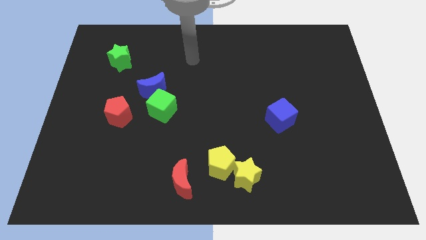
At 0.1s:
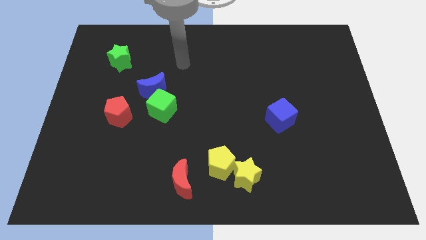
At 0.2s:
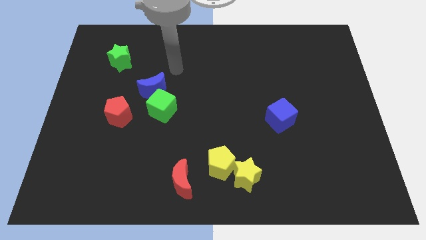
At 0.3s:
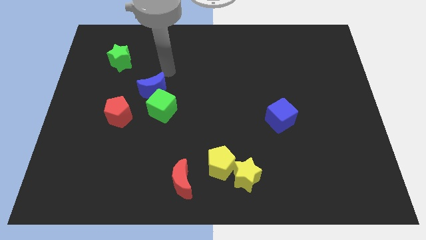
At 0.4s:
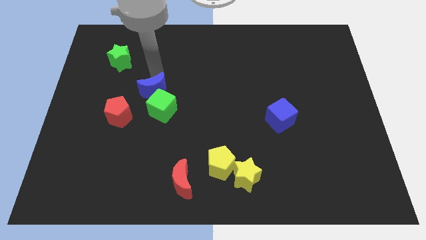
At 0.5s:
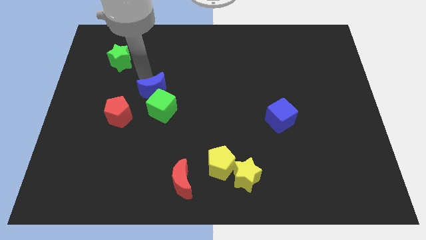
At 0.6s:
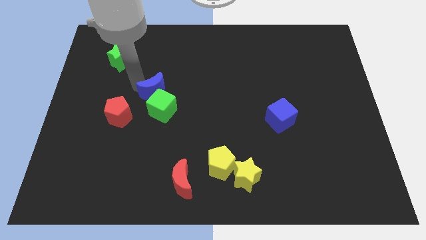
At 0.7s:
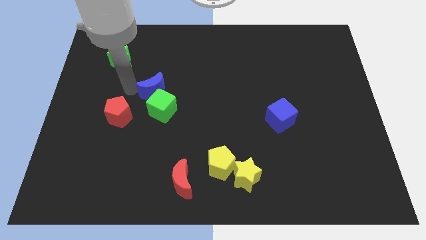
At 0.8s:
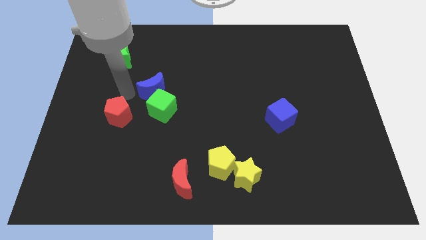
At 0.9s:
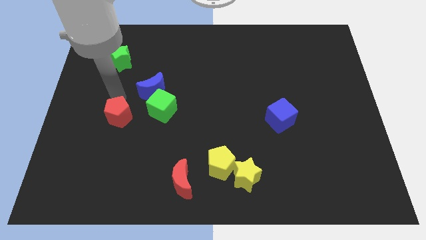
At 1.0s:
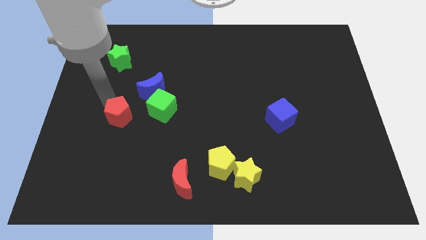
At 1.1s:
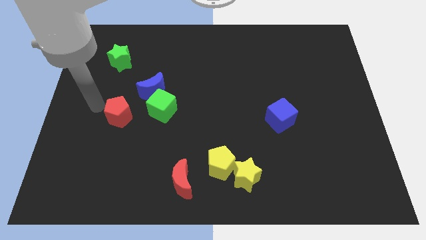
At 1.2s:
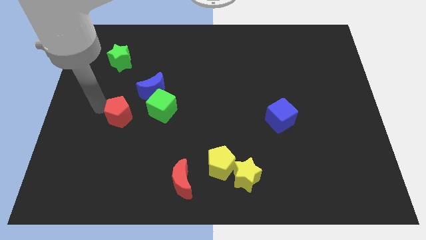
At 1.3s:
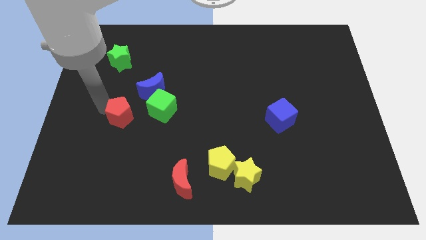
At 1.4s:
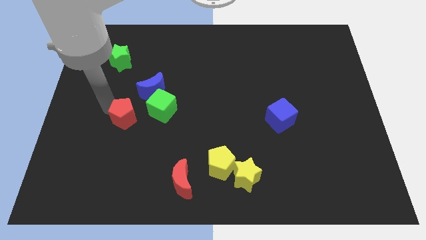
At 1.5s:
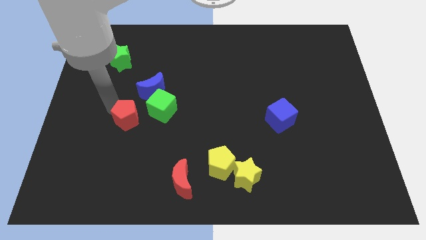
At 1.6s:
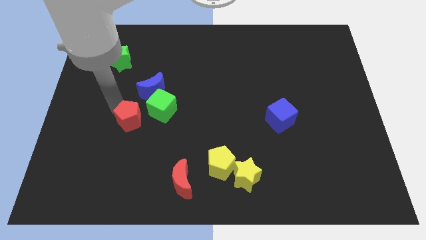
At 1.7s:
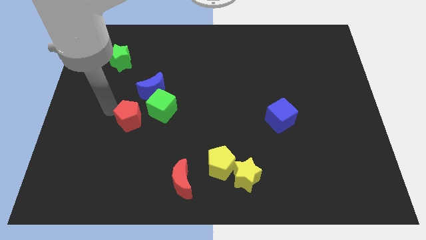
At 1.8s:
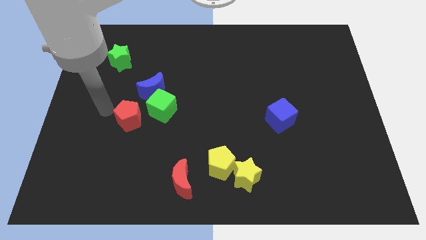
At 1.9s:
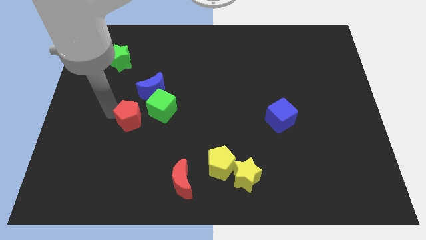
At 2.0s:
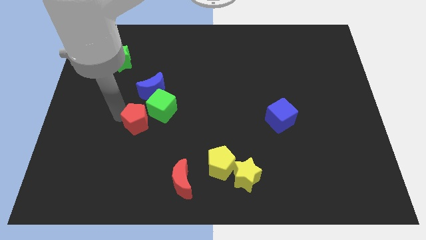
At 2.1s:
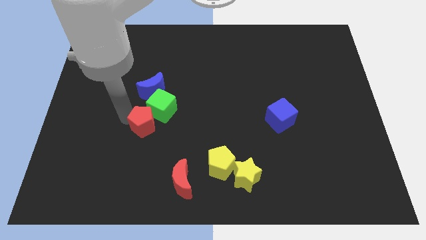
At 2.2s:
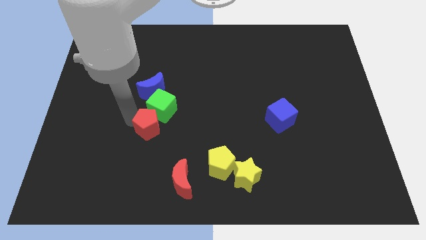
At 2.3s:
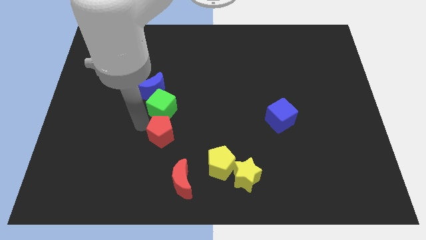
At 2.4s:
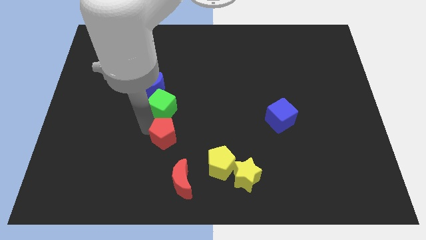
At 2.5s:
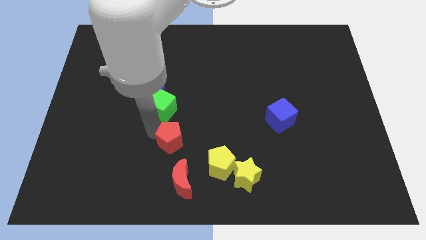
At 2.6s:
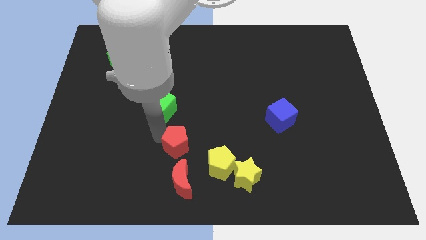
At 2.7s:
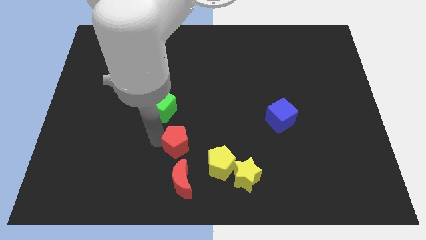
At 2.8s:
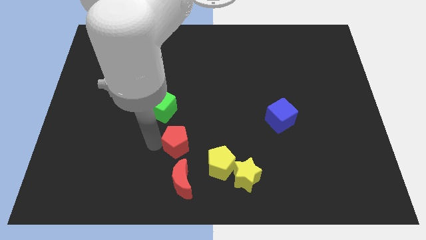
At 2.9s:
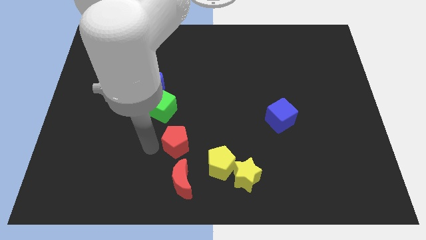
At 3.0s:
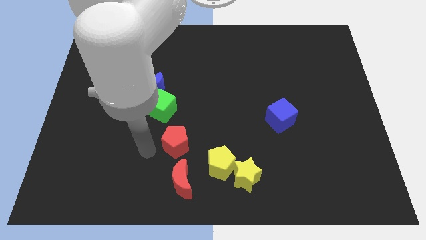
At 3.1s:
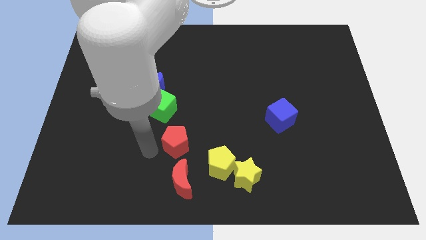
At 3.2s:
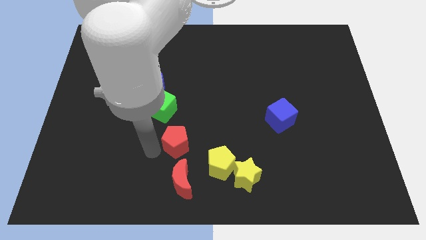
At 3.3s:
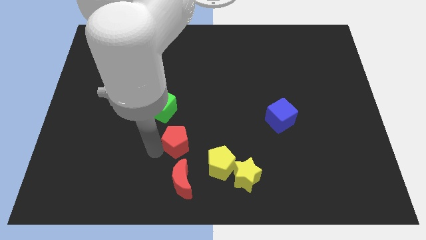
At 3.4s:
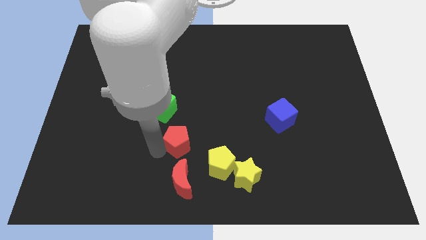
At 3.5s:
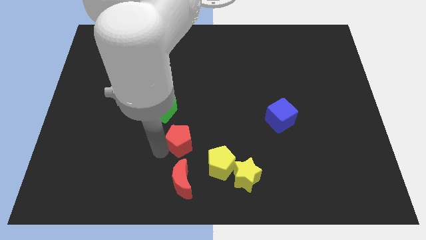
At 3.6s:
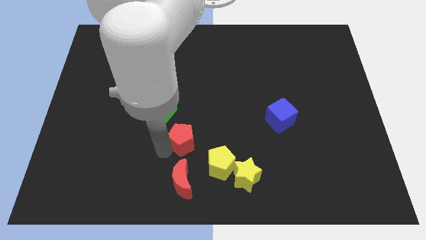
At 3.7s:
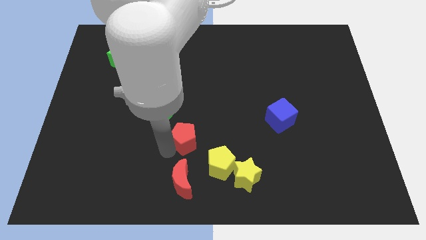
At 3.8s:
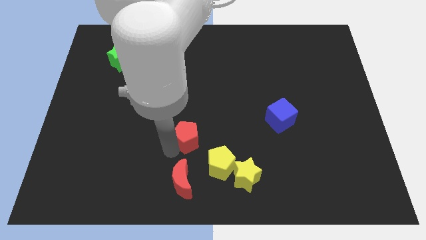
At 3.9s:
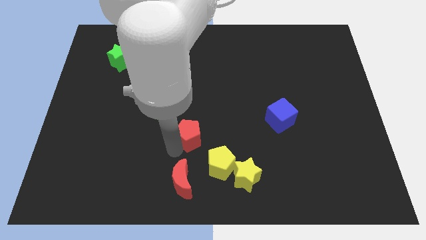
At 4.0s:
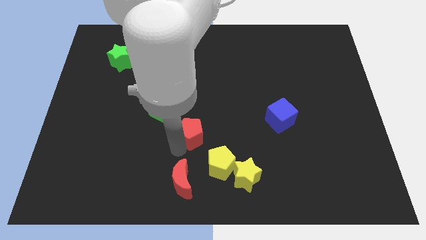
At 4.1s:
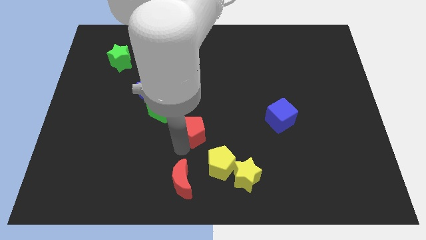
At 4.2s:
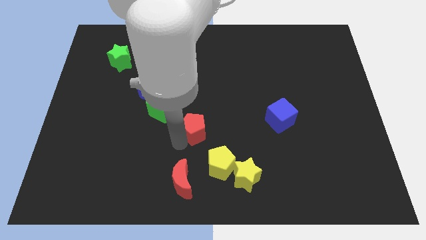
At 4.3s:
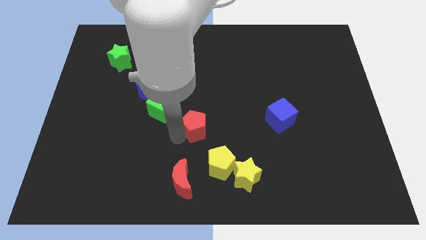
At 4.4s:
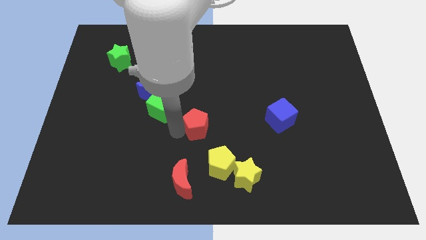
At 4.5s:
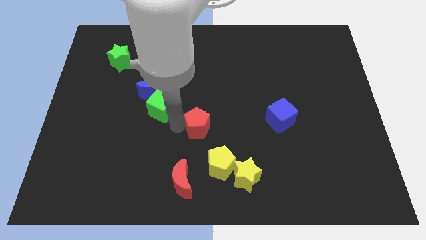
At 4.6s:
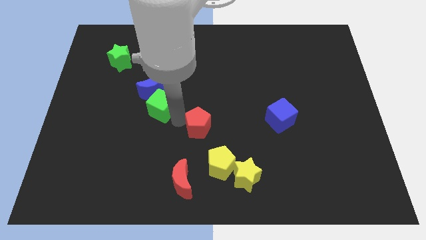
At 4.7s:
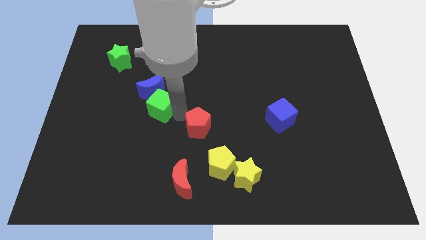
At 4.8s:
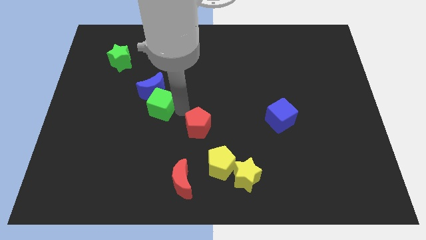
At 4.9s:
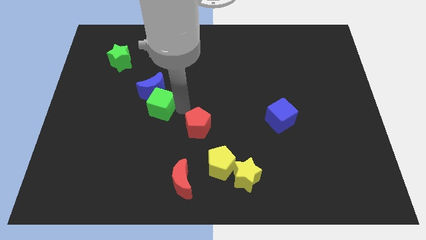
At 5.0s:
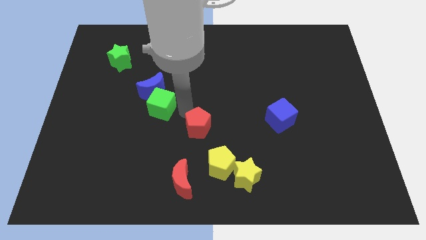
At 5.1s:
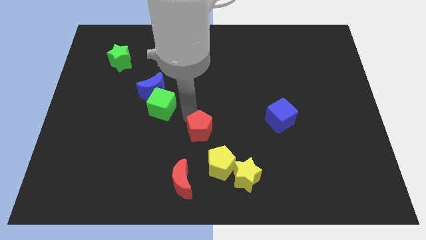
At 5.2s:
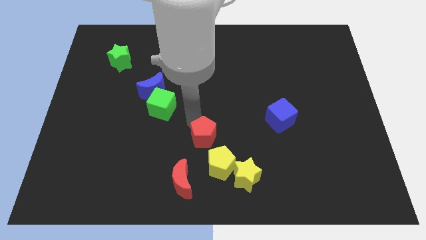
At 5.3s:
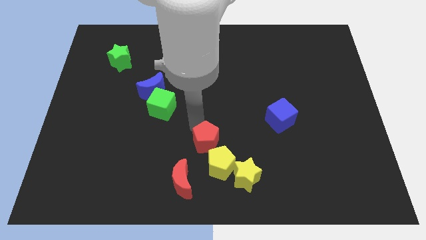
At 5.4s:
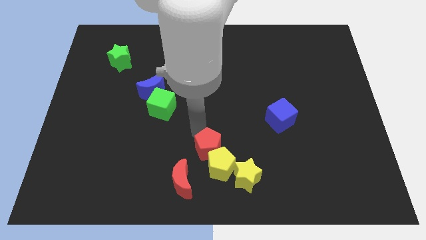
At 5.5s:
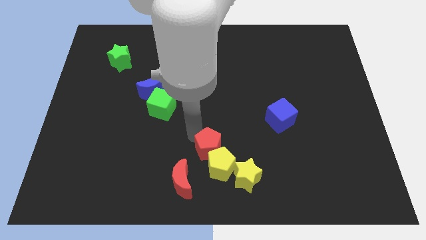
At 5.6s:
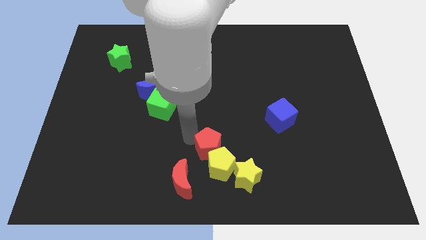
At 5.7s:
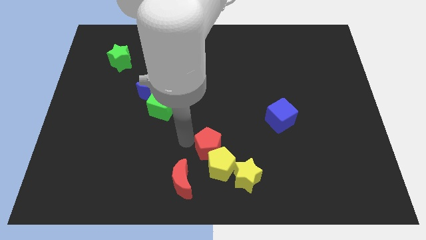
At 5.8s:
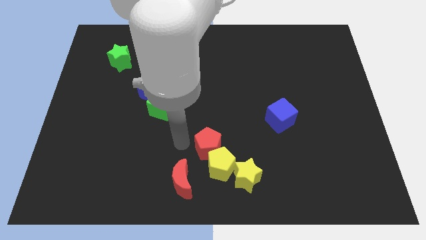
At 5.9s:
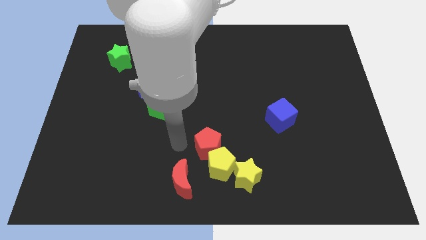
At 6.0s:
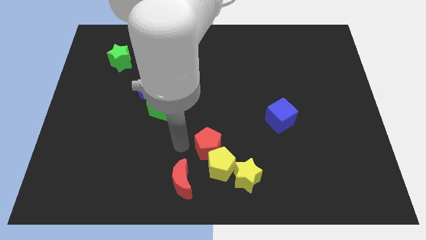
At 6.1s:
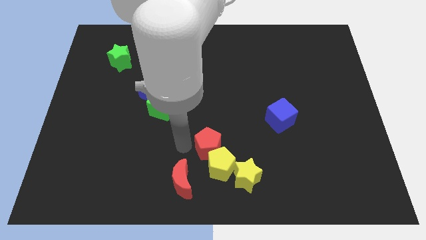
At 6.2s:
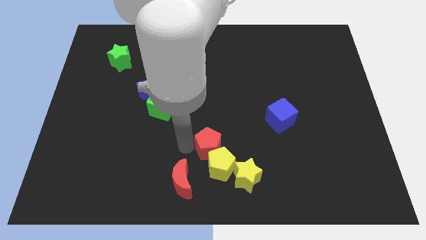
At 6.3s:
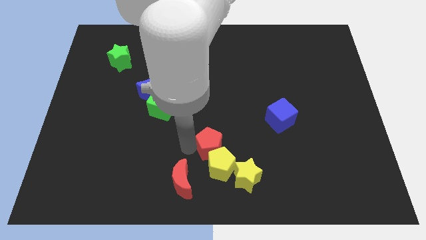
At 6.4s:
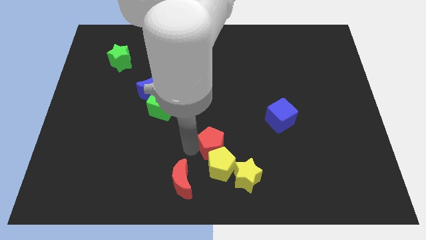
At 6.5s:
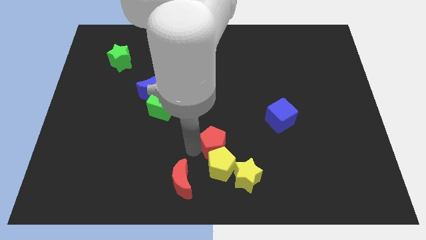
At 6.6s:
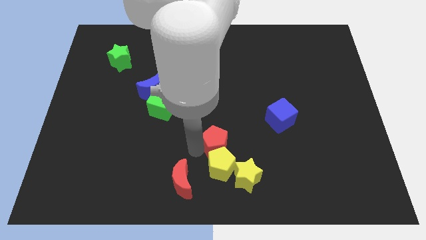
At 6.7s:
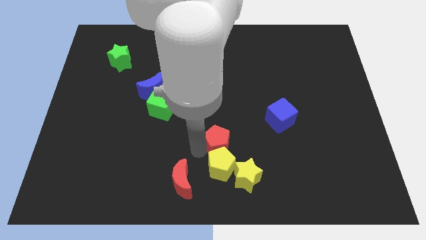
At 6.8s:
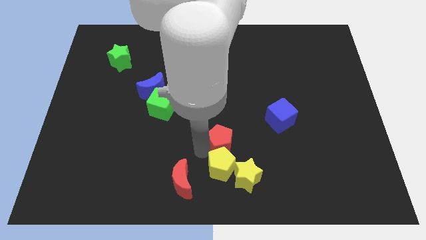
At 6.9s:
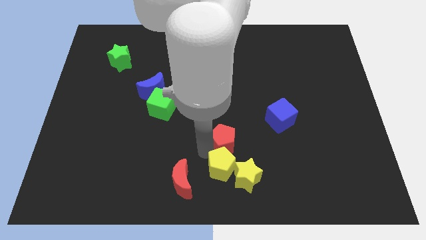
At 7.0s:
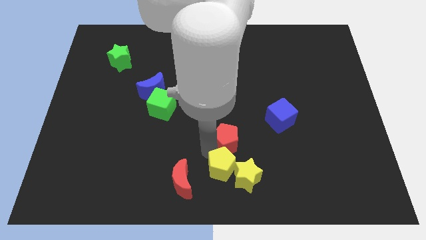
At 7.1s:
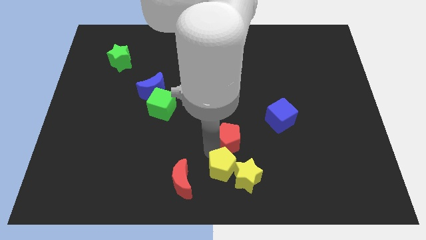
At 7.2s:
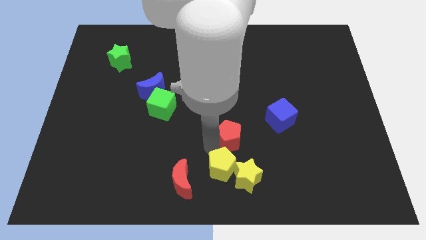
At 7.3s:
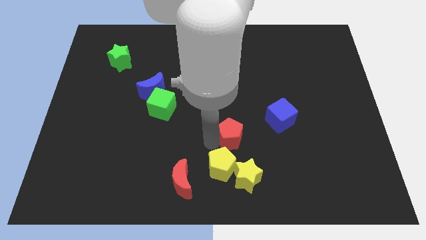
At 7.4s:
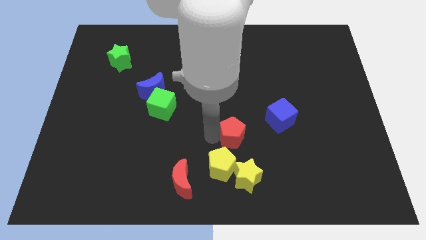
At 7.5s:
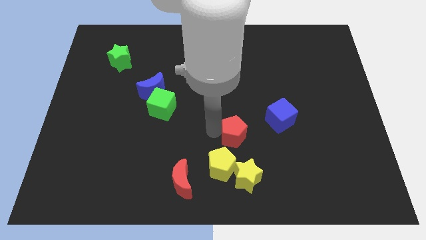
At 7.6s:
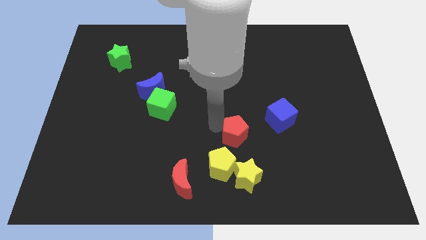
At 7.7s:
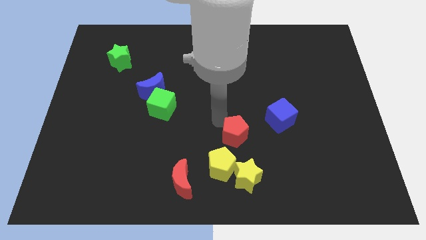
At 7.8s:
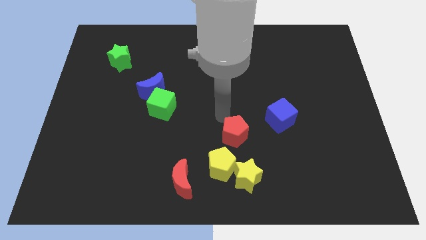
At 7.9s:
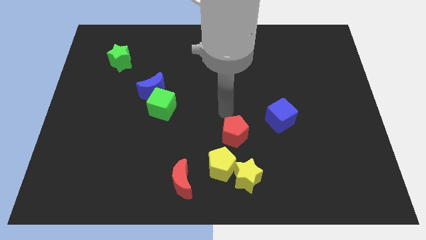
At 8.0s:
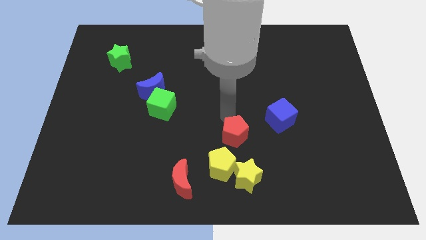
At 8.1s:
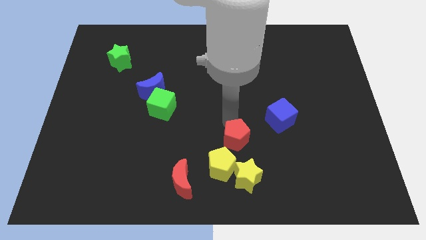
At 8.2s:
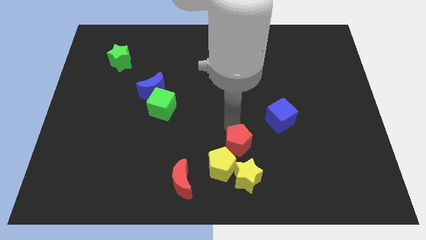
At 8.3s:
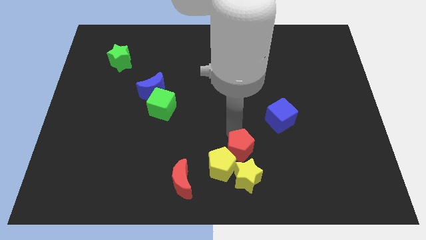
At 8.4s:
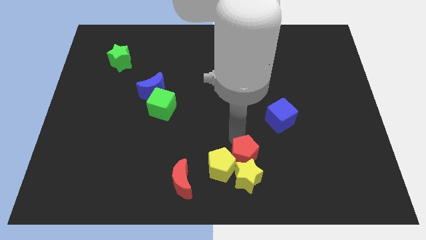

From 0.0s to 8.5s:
push the red pentagon close to the yellow star
